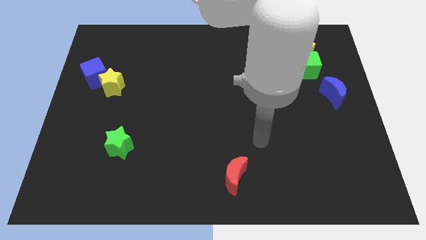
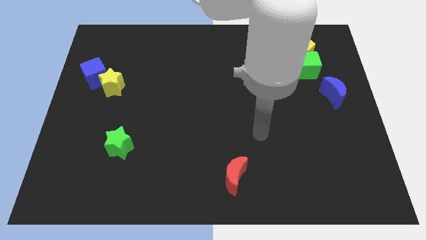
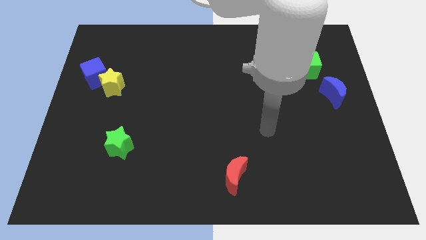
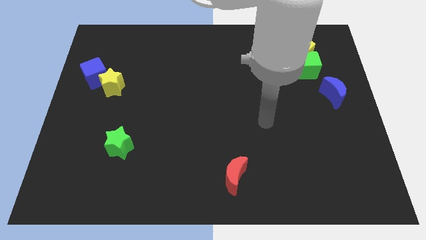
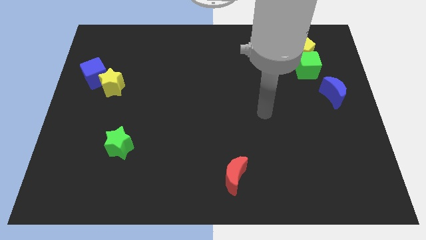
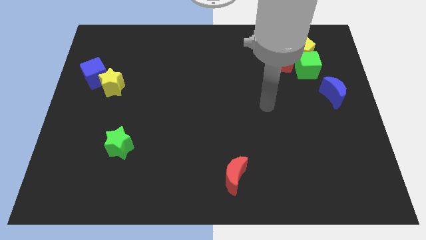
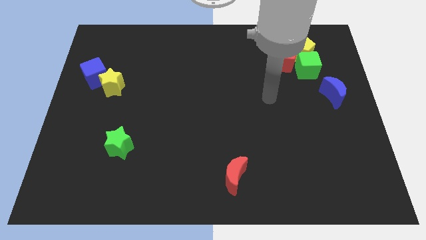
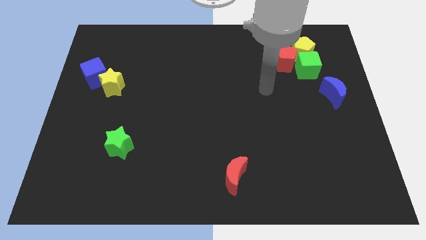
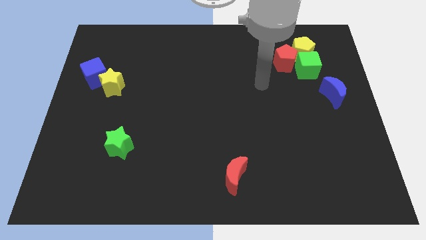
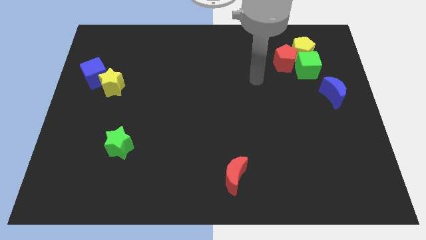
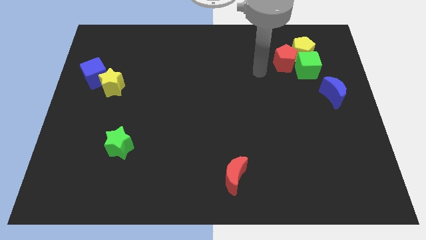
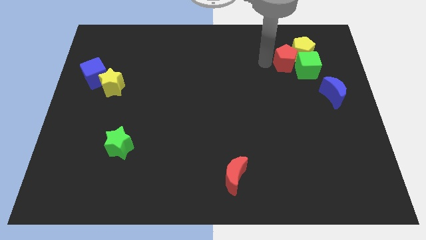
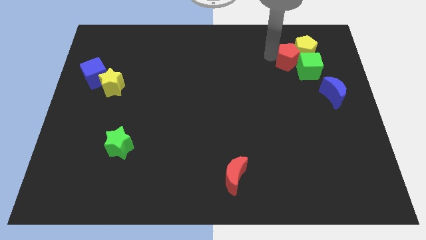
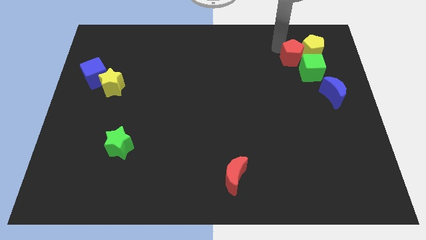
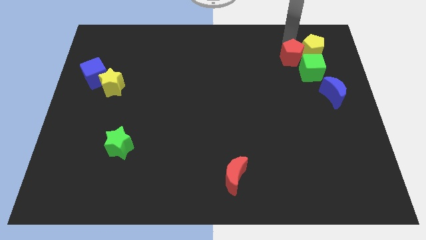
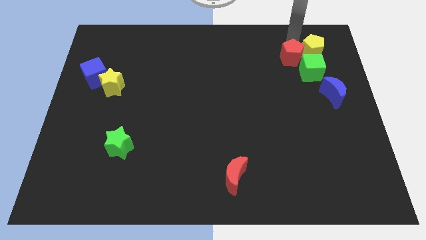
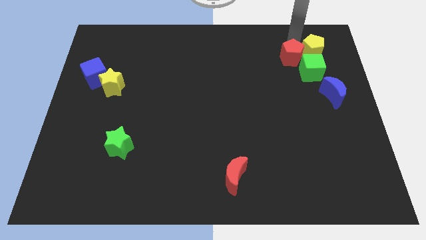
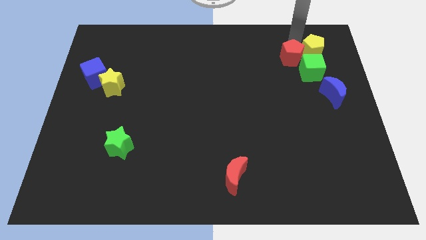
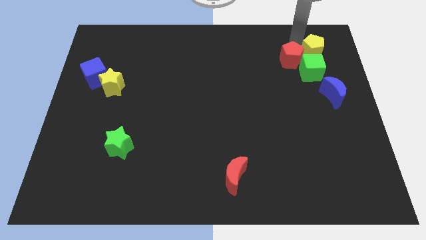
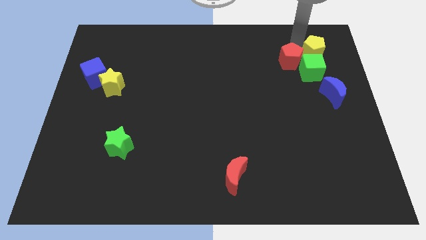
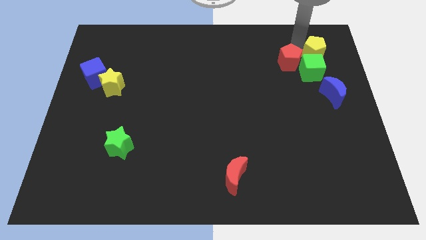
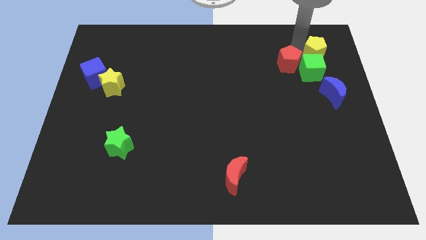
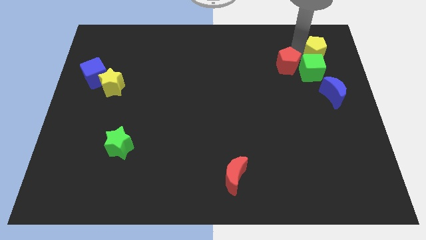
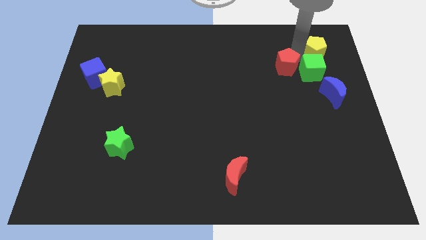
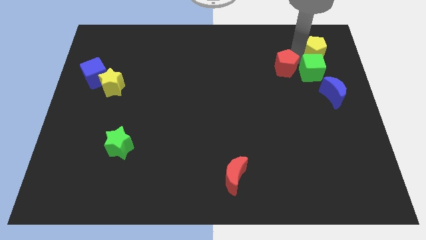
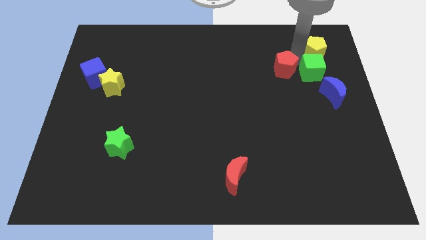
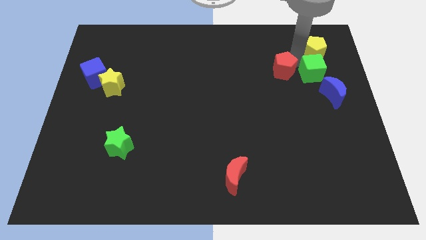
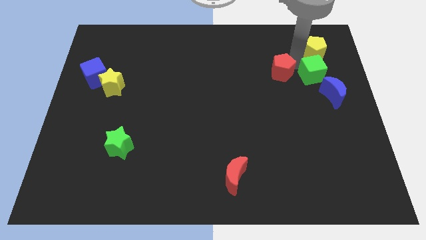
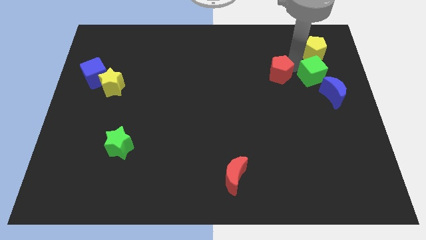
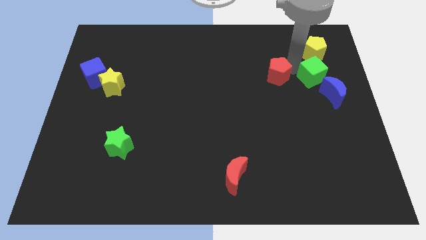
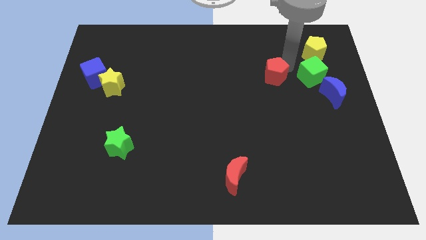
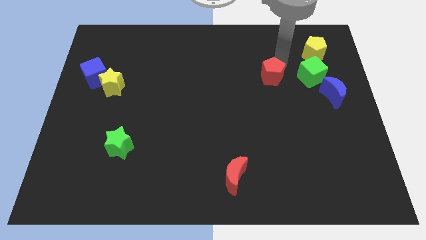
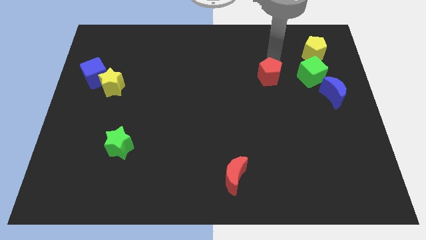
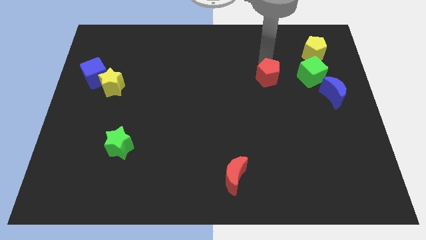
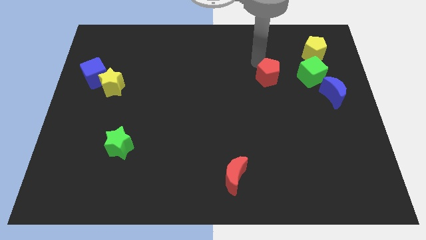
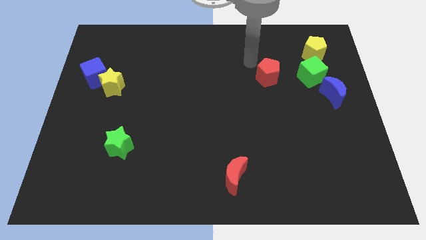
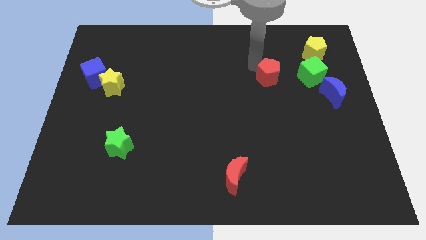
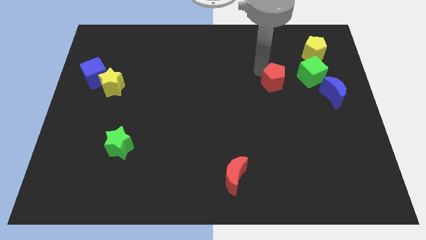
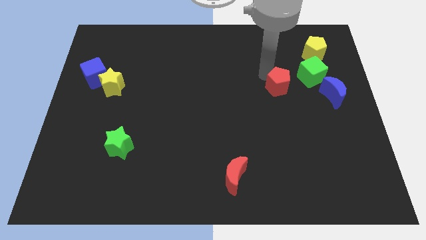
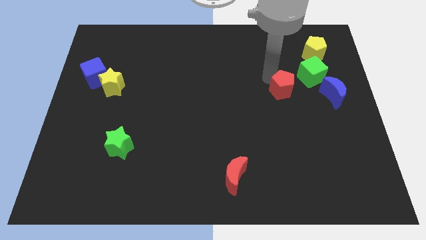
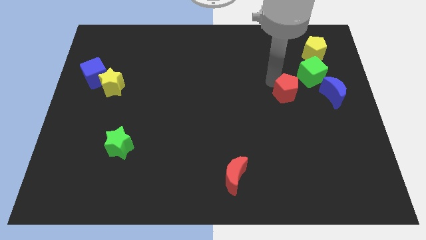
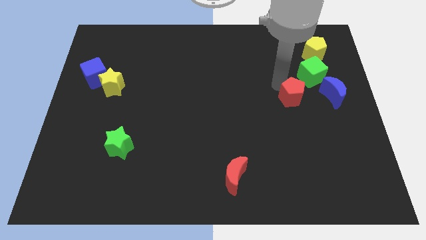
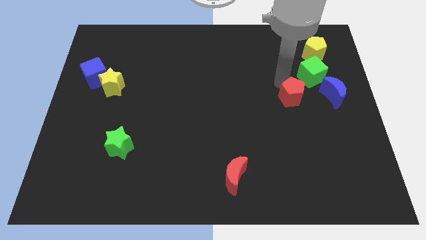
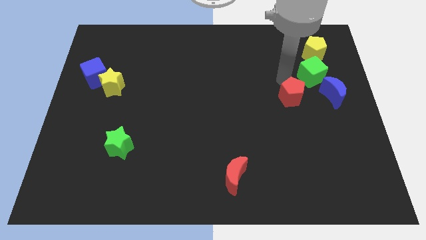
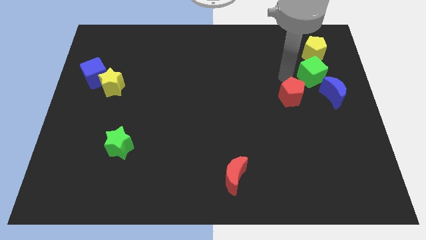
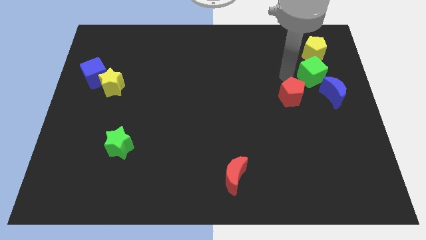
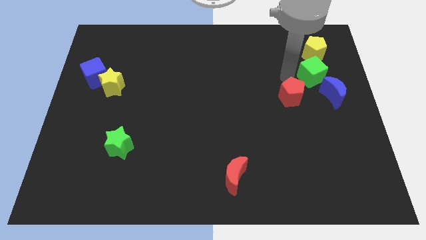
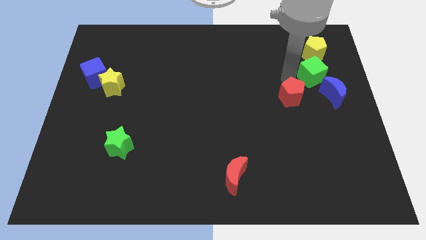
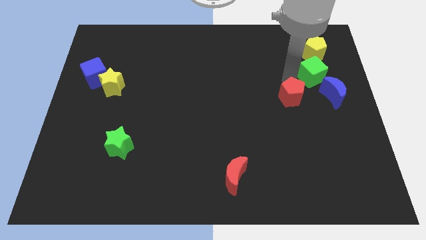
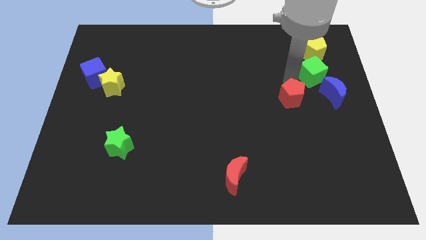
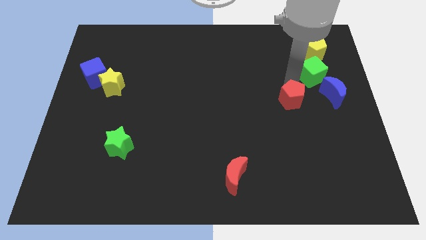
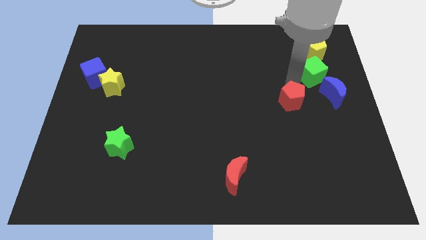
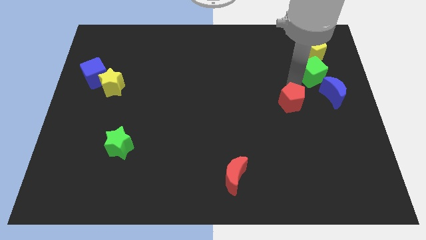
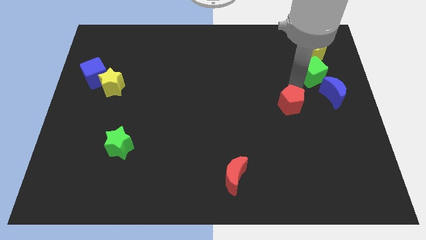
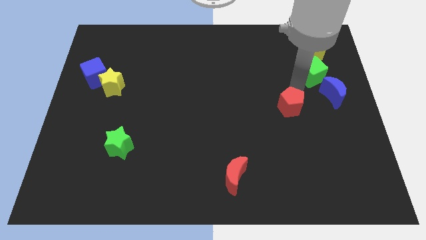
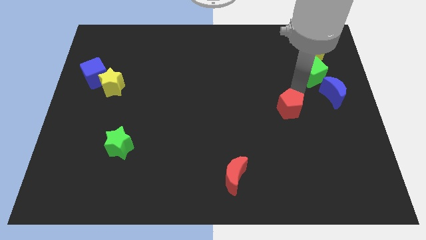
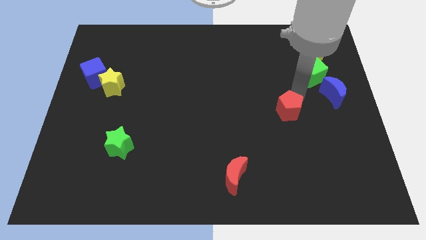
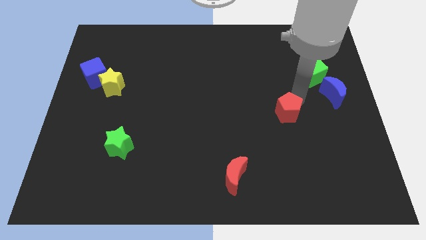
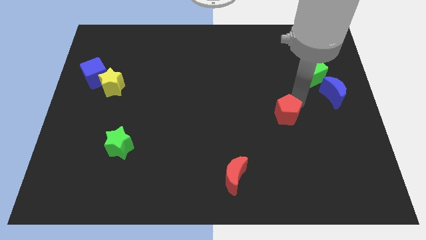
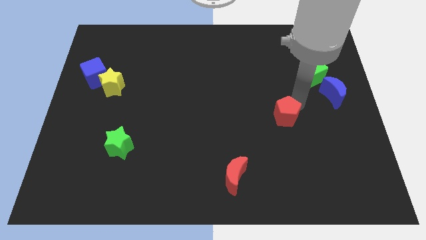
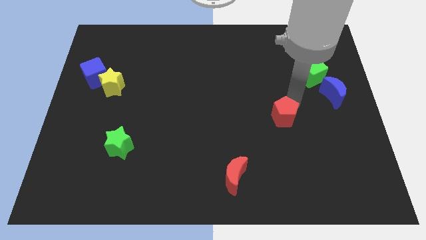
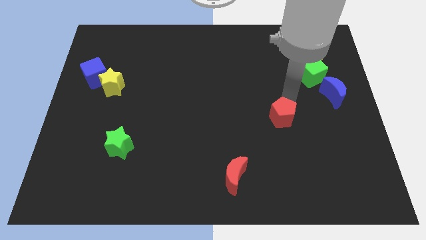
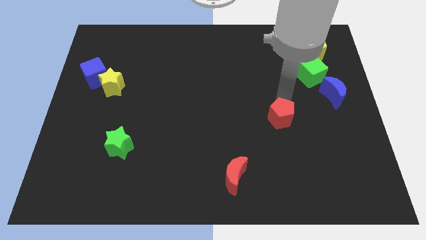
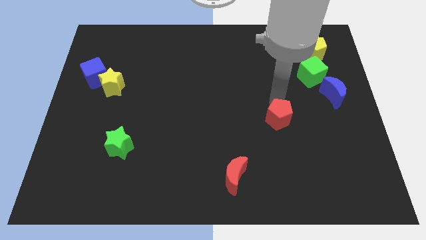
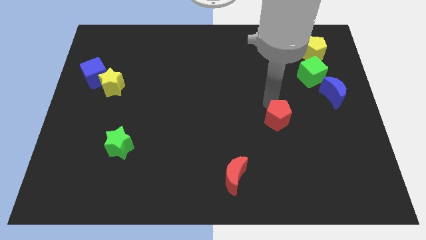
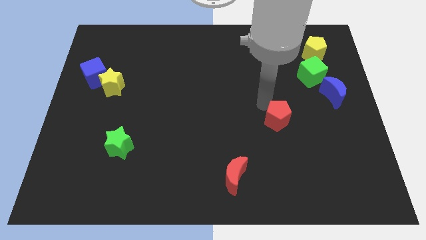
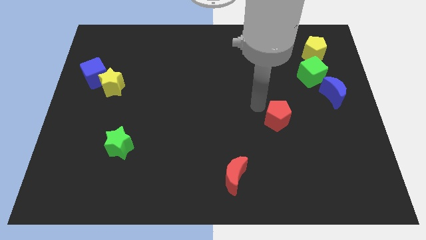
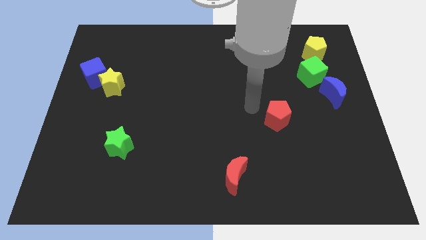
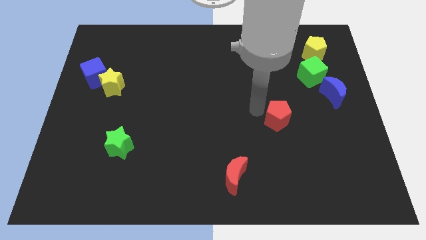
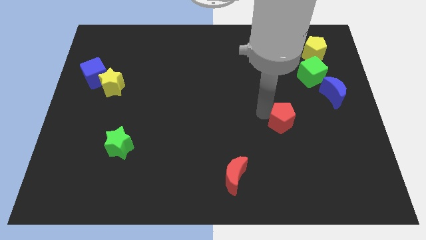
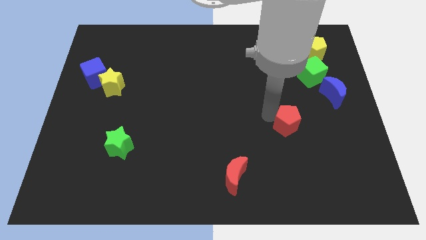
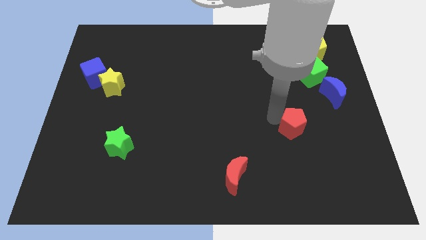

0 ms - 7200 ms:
slide the red pentagon downwards
